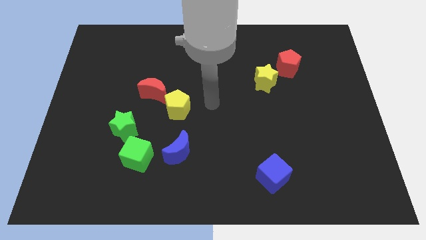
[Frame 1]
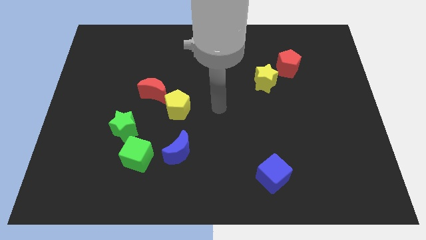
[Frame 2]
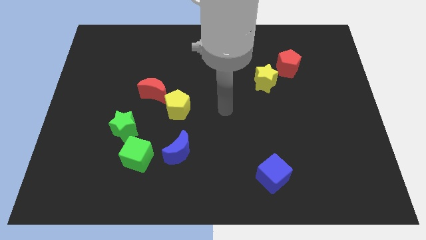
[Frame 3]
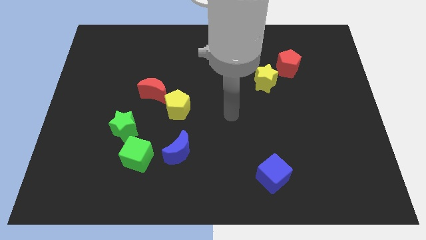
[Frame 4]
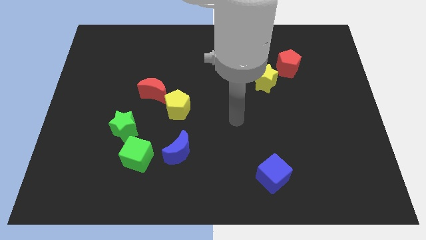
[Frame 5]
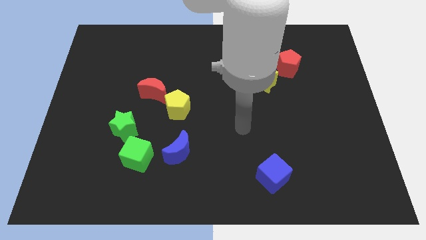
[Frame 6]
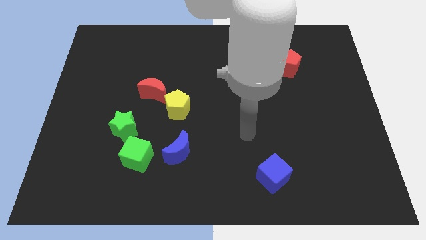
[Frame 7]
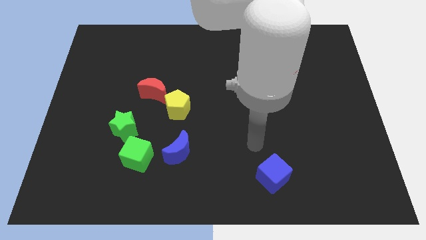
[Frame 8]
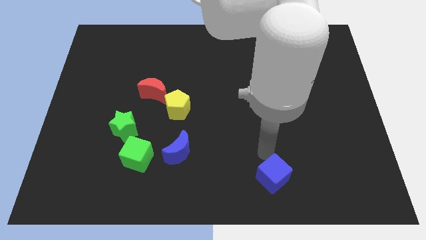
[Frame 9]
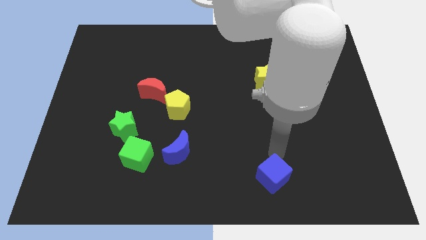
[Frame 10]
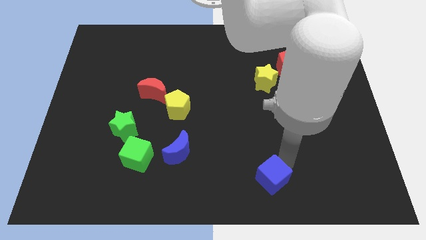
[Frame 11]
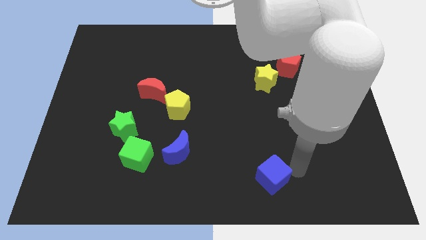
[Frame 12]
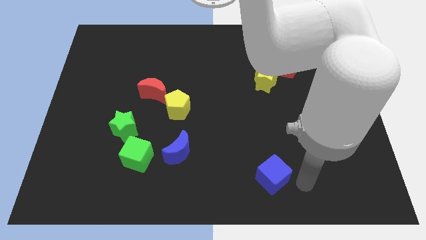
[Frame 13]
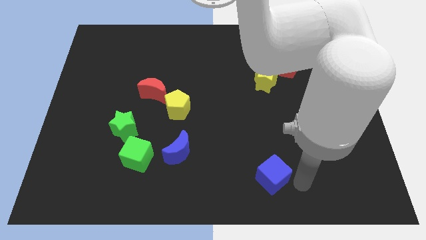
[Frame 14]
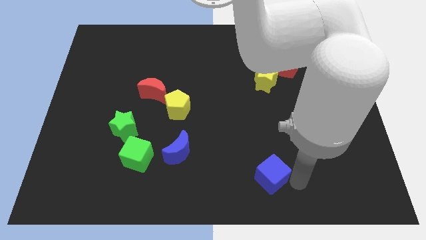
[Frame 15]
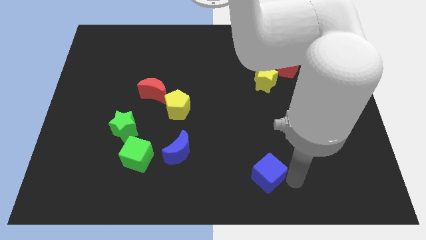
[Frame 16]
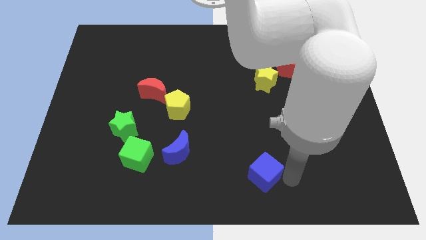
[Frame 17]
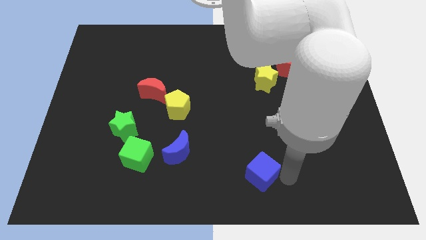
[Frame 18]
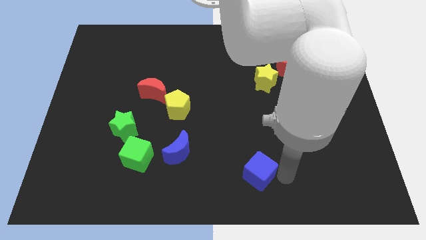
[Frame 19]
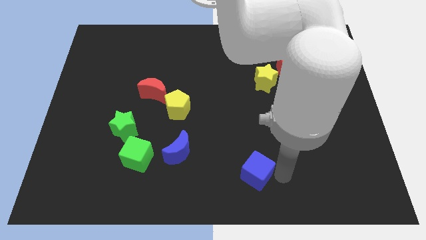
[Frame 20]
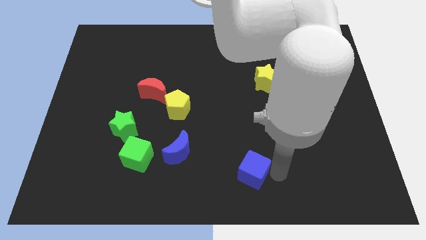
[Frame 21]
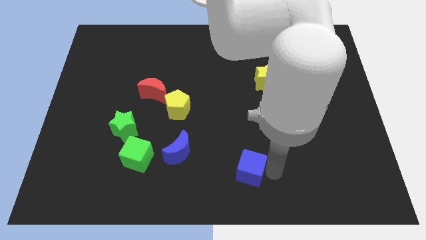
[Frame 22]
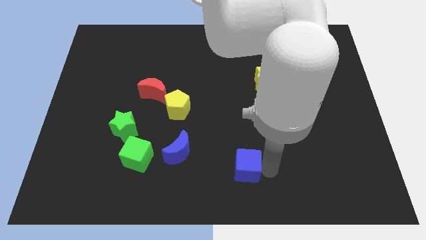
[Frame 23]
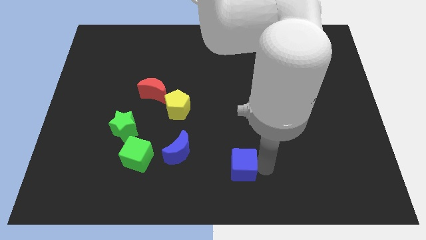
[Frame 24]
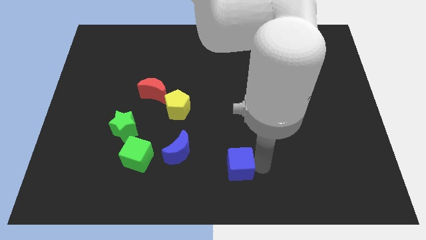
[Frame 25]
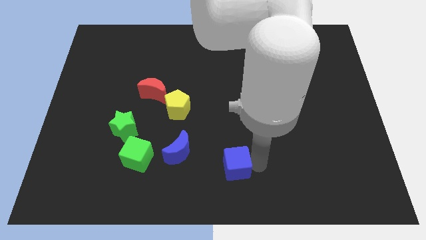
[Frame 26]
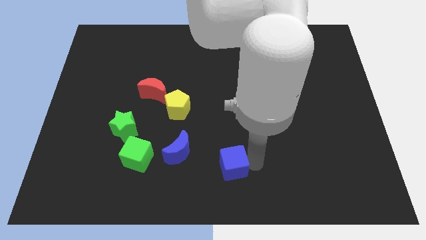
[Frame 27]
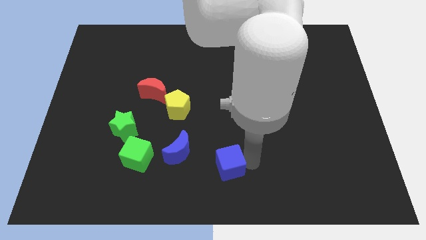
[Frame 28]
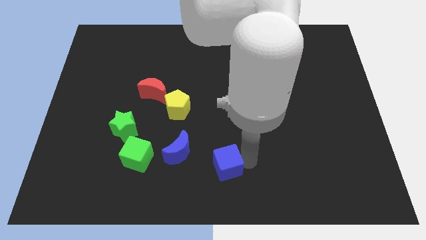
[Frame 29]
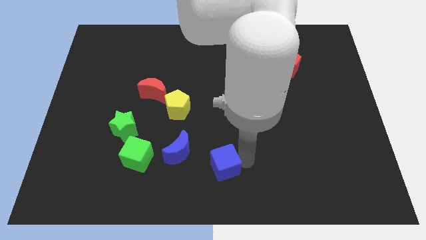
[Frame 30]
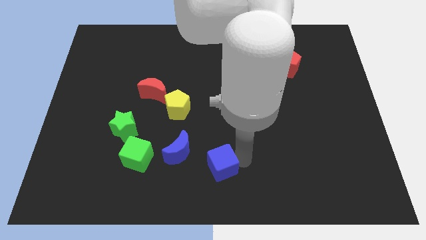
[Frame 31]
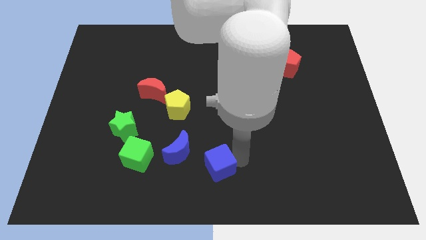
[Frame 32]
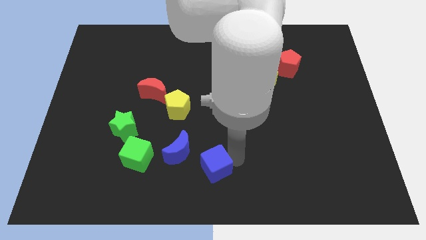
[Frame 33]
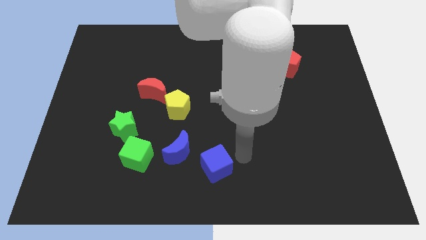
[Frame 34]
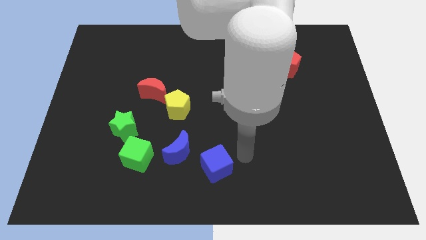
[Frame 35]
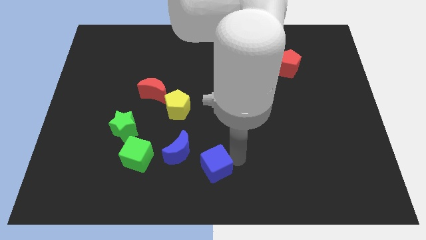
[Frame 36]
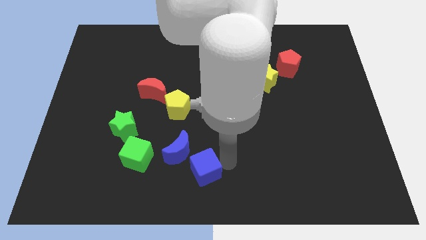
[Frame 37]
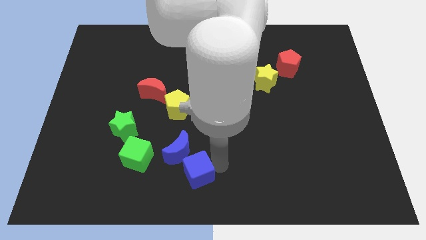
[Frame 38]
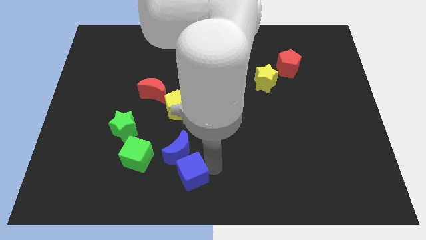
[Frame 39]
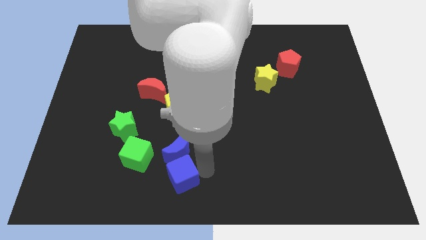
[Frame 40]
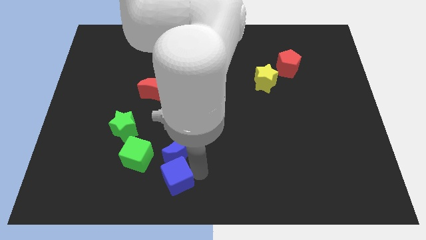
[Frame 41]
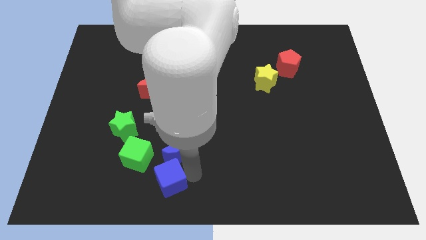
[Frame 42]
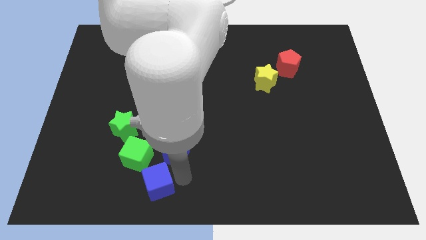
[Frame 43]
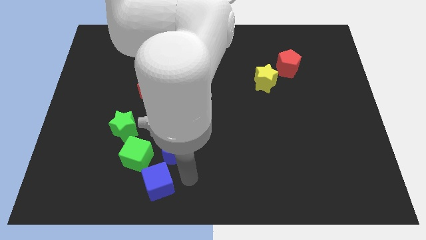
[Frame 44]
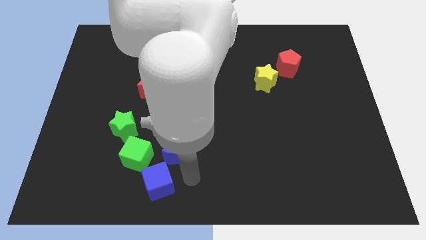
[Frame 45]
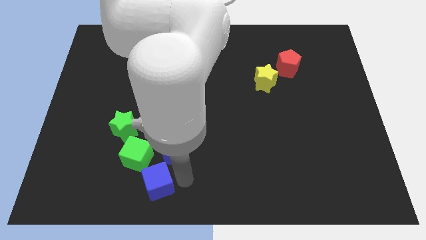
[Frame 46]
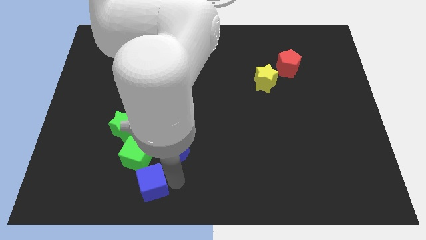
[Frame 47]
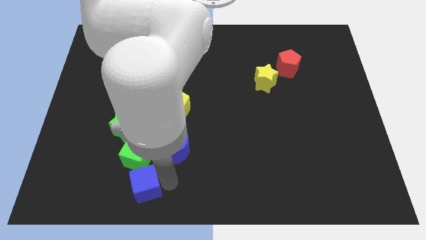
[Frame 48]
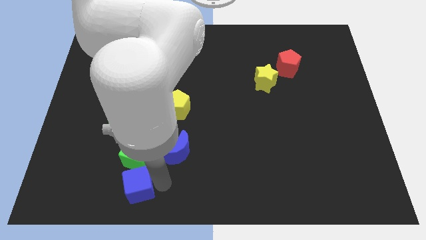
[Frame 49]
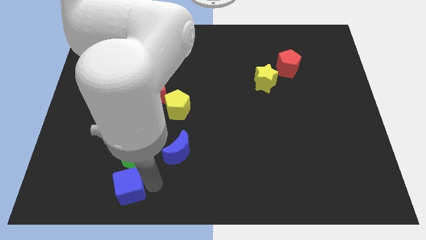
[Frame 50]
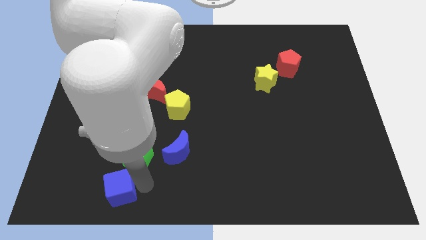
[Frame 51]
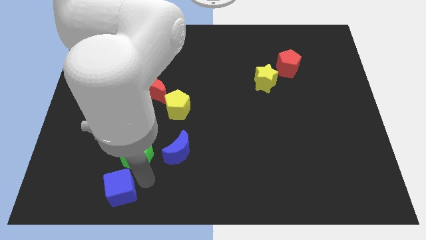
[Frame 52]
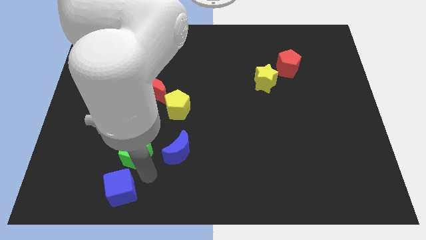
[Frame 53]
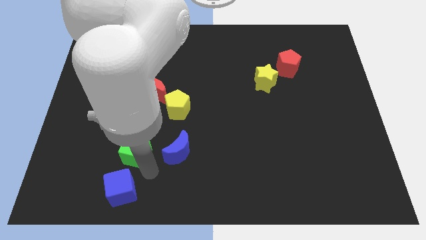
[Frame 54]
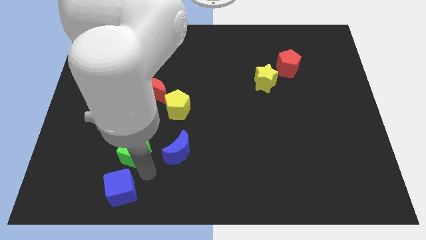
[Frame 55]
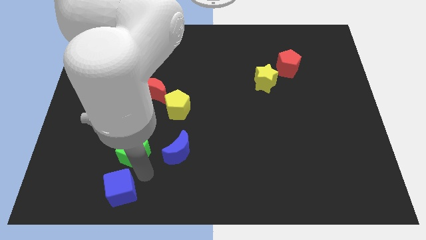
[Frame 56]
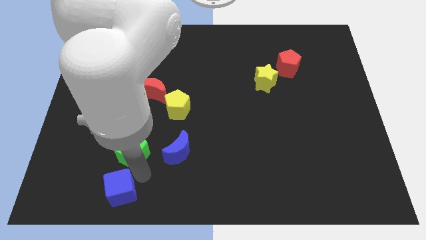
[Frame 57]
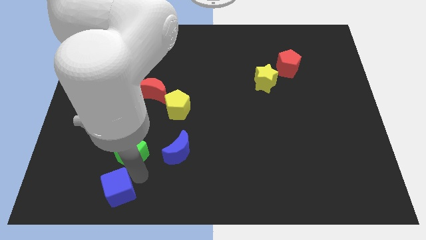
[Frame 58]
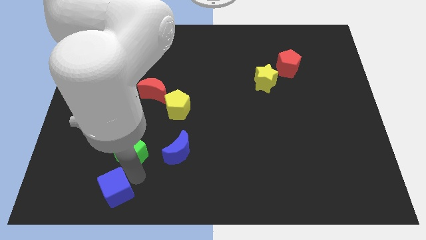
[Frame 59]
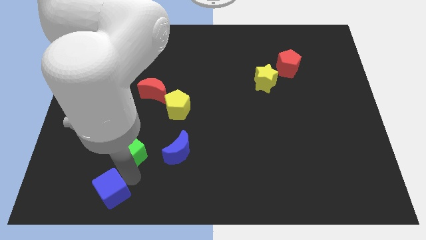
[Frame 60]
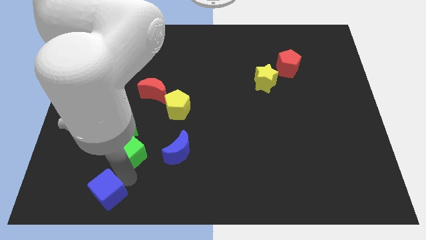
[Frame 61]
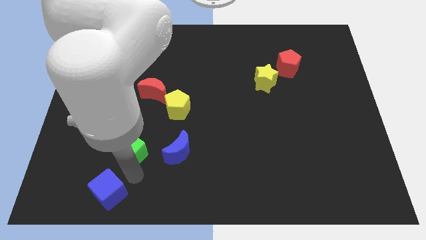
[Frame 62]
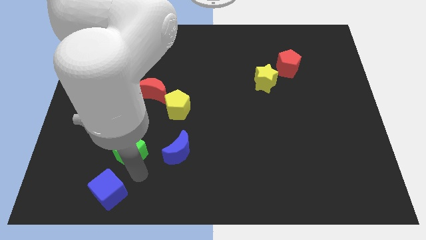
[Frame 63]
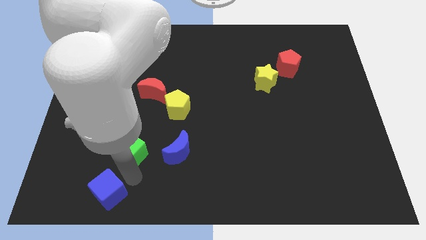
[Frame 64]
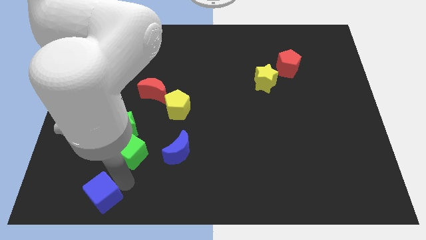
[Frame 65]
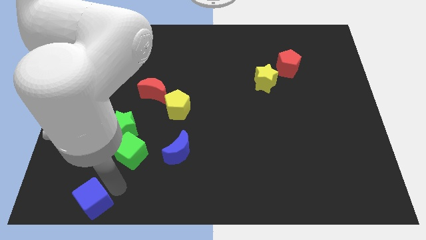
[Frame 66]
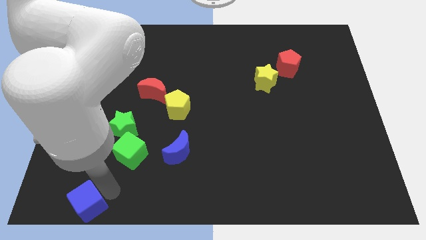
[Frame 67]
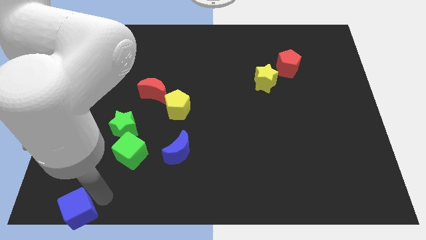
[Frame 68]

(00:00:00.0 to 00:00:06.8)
put the blue cube to the bottom left of the board
